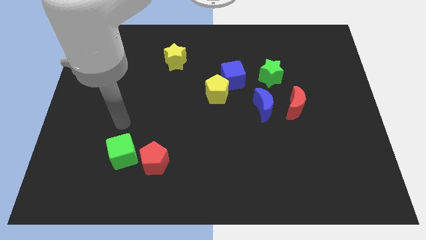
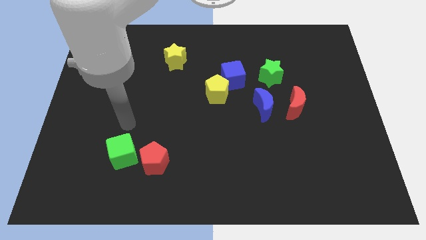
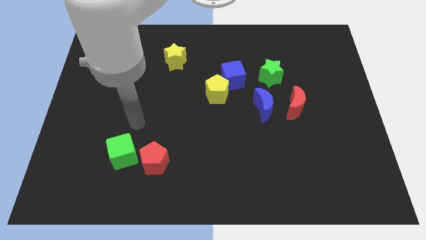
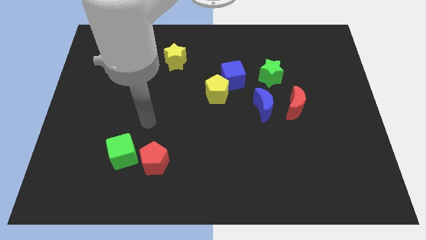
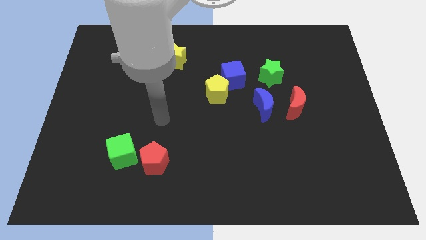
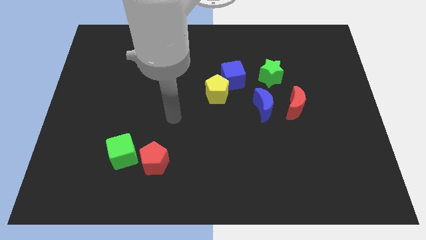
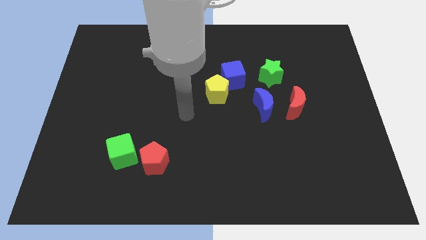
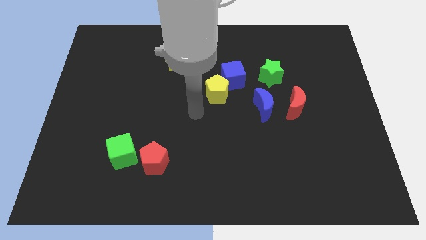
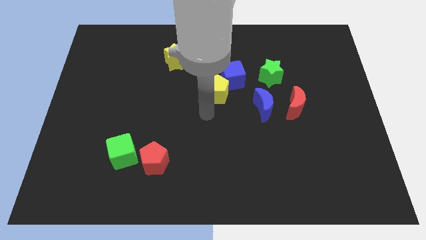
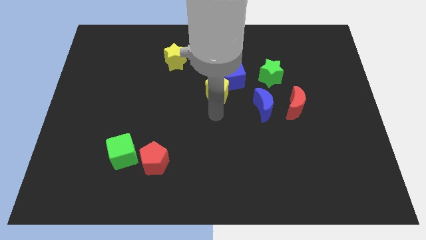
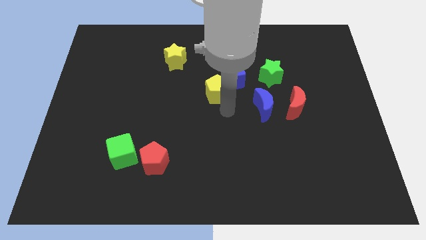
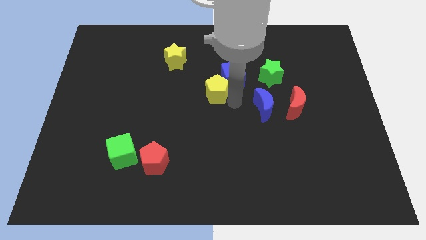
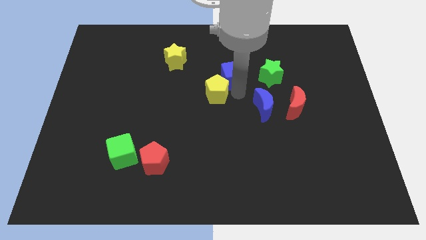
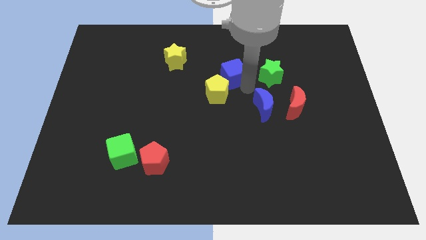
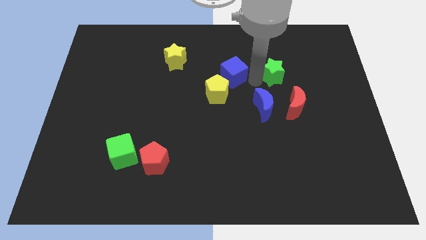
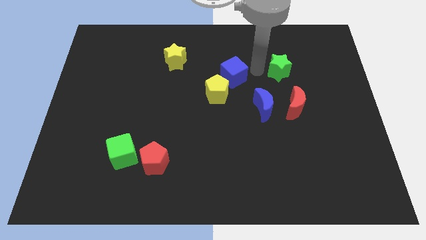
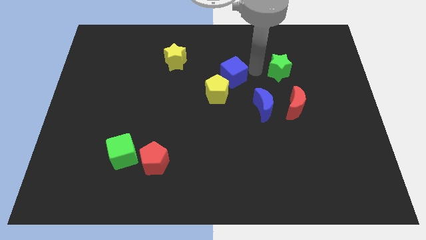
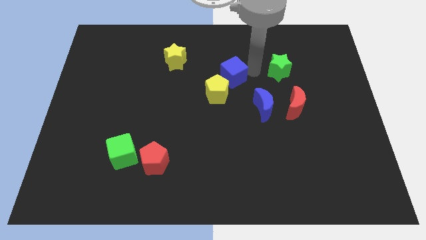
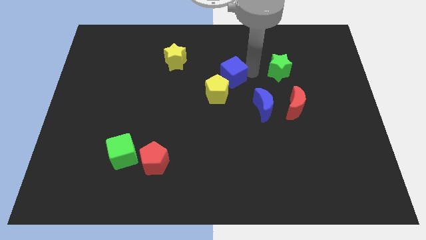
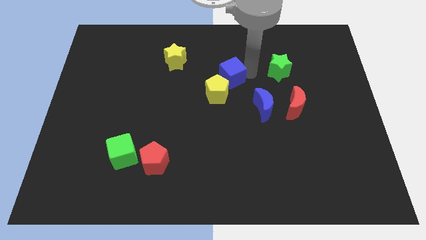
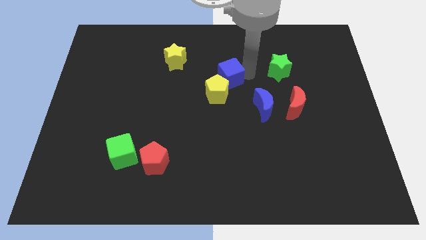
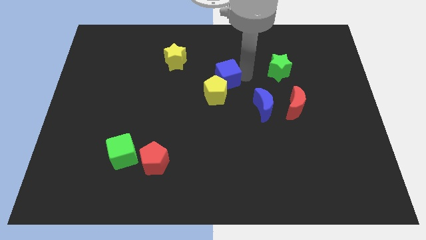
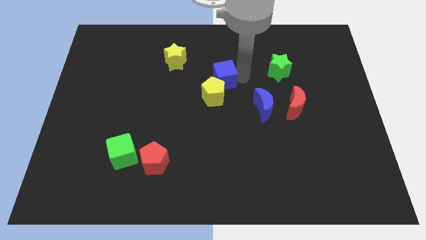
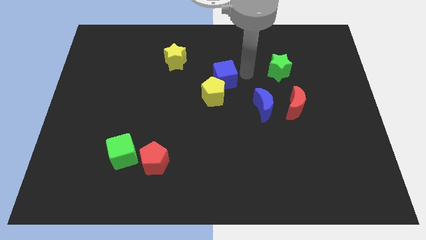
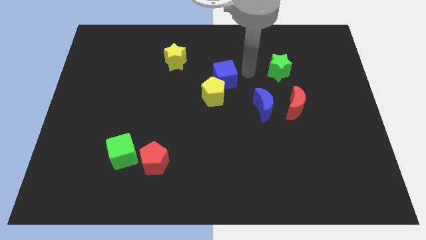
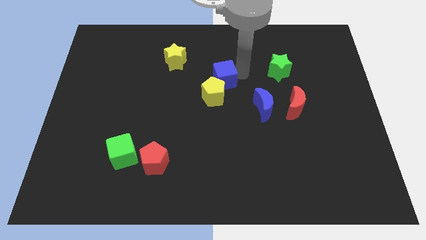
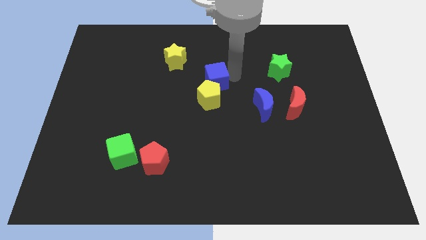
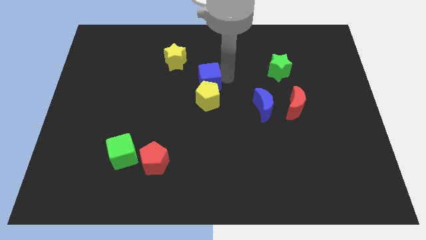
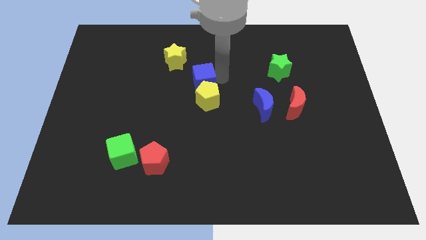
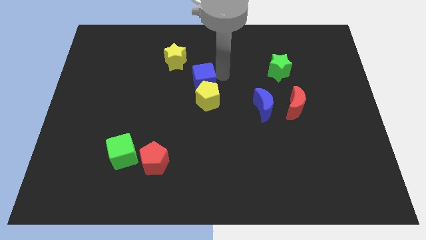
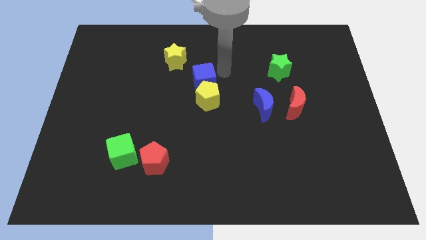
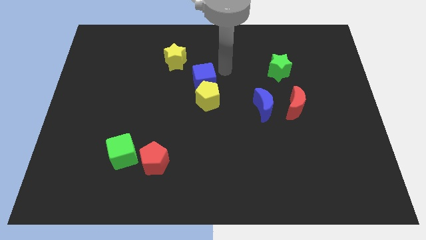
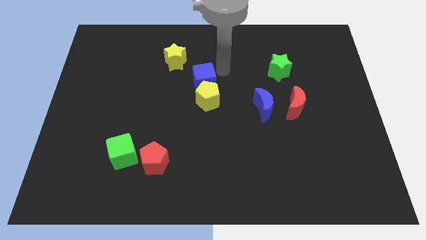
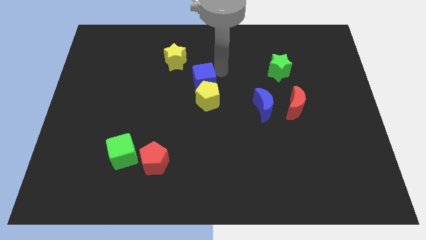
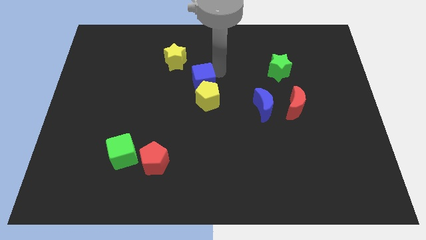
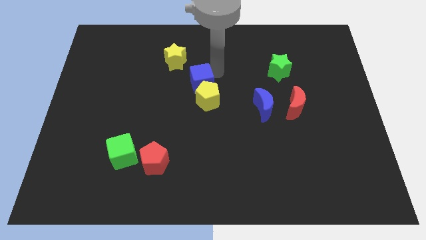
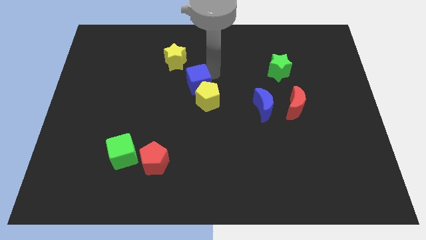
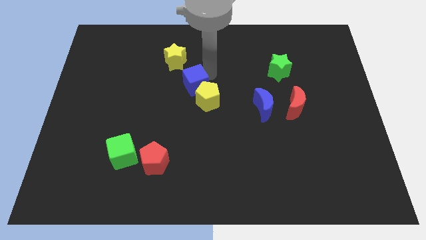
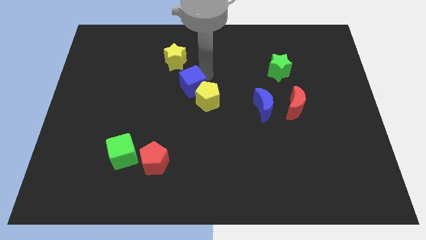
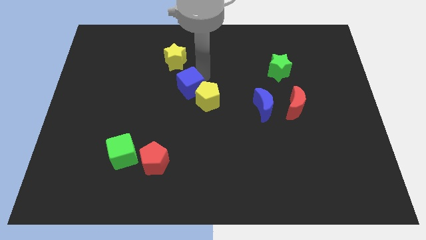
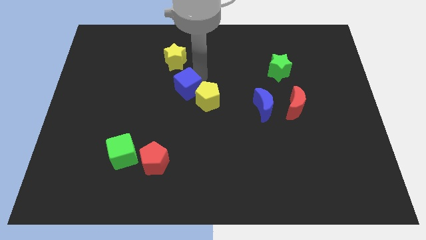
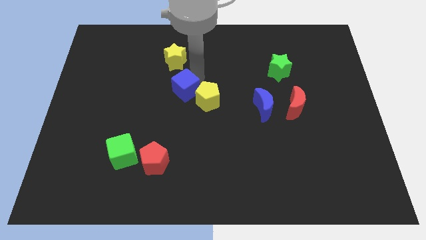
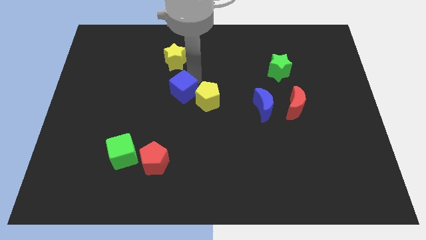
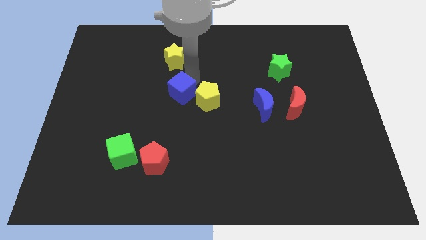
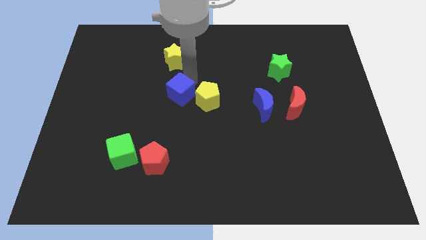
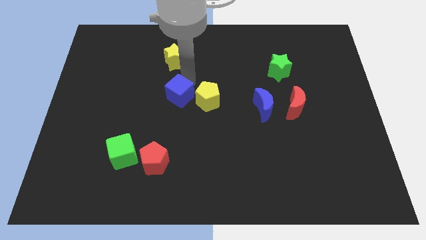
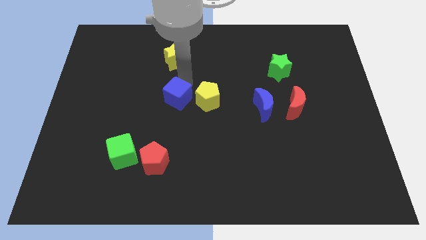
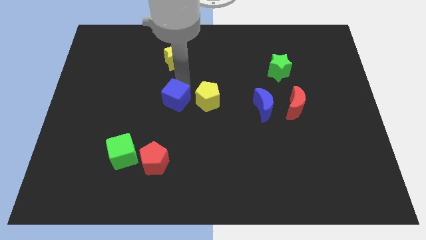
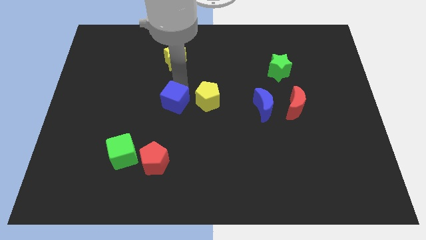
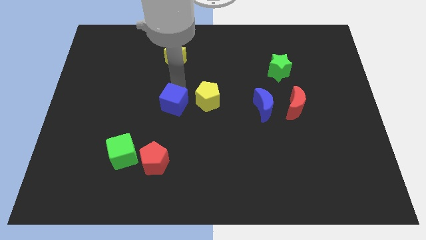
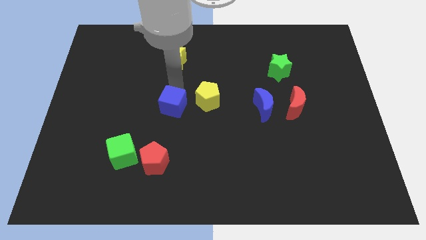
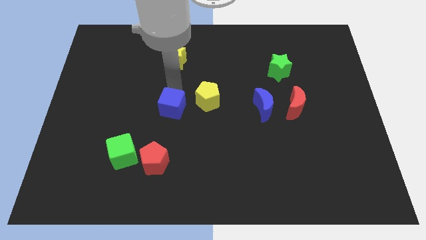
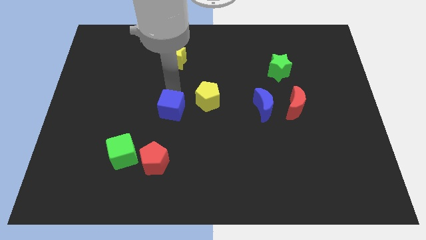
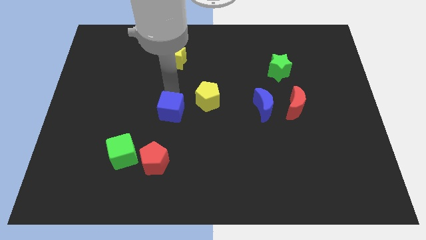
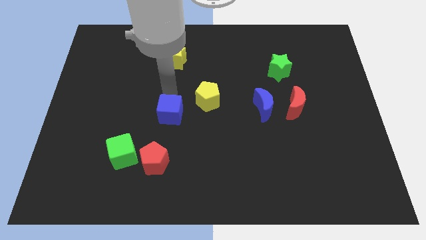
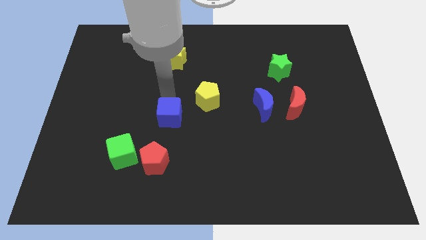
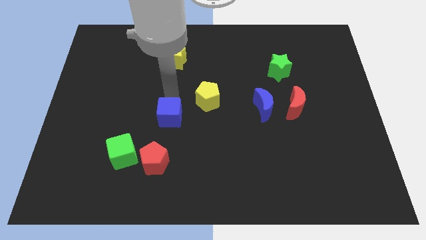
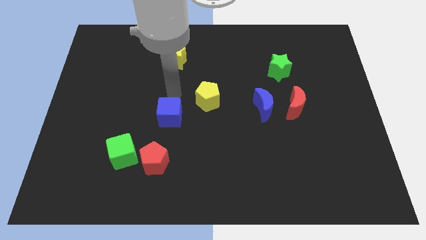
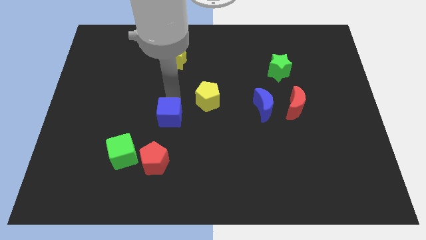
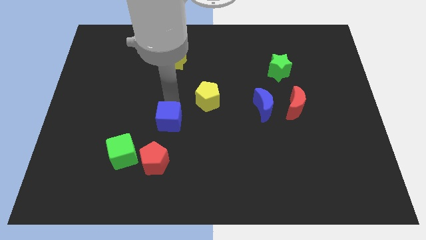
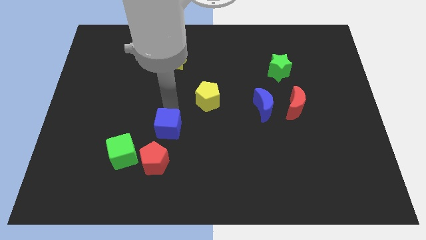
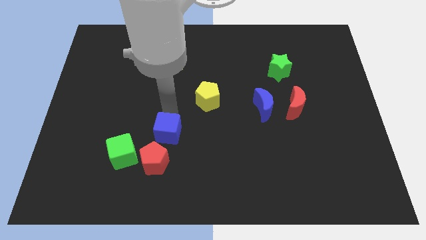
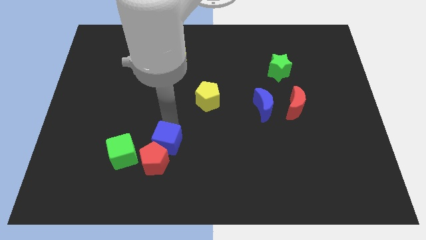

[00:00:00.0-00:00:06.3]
push the blue cube to the red pentagon

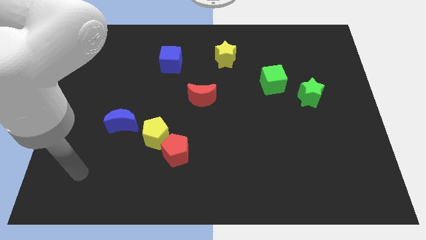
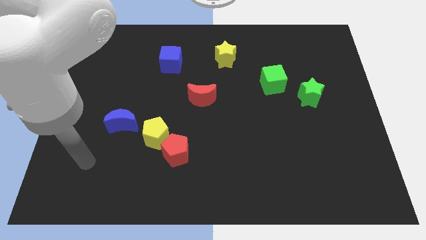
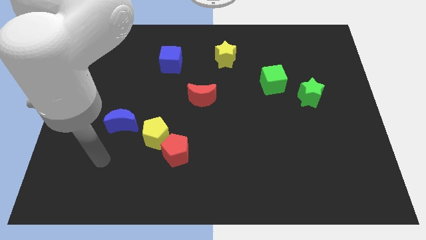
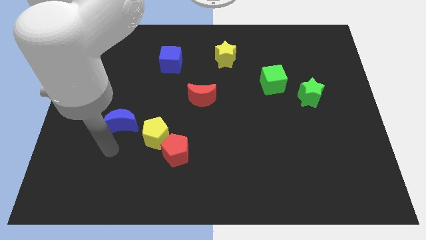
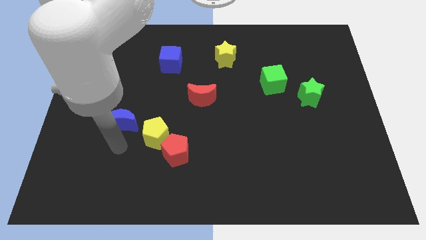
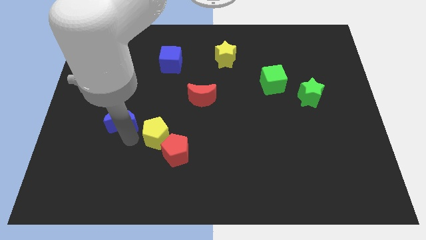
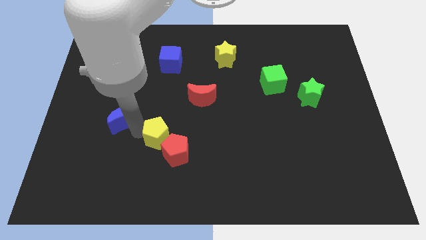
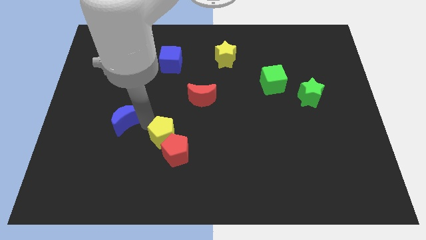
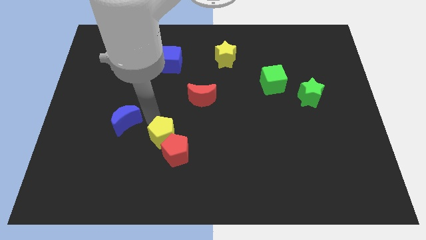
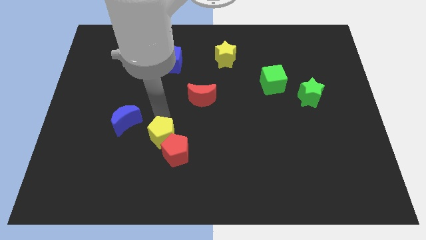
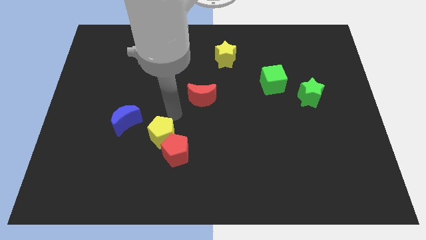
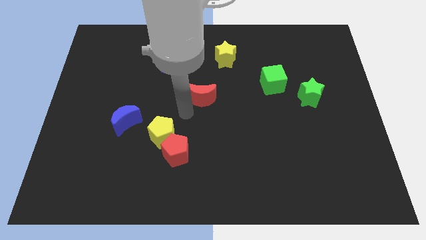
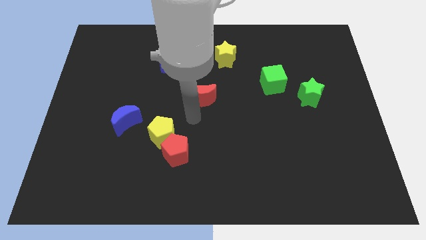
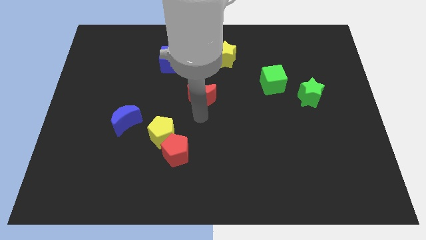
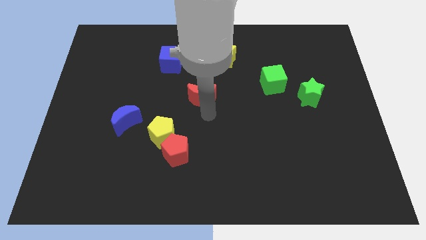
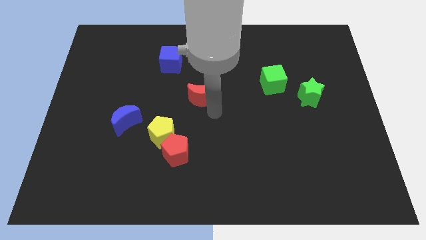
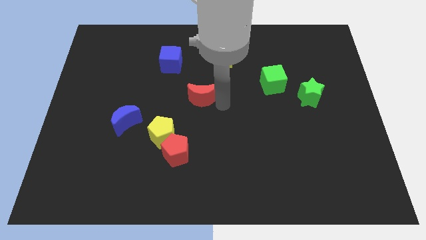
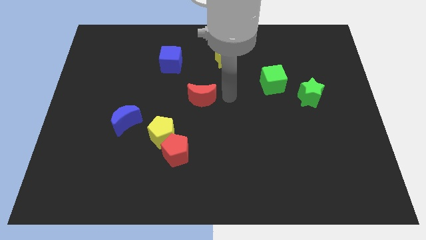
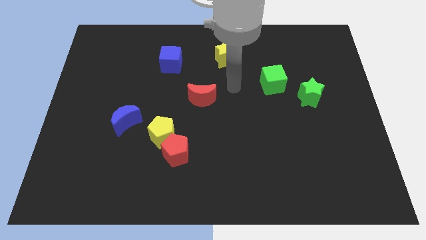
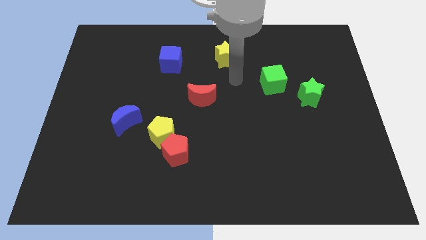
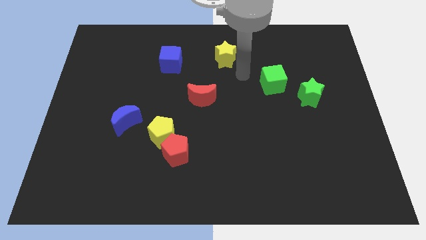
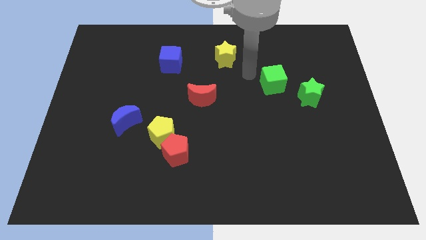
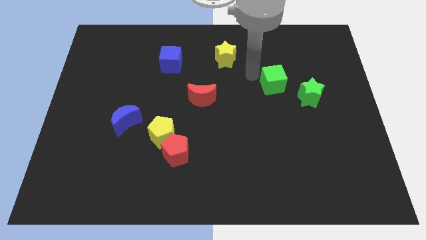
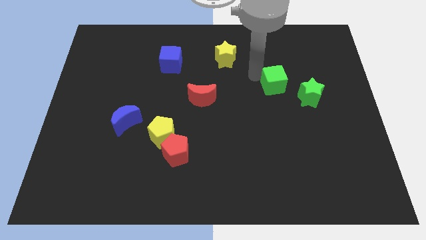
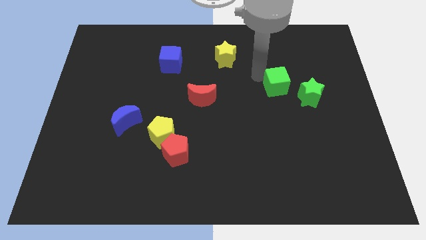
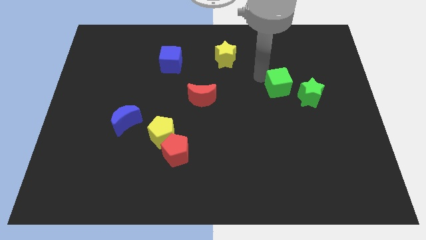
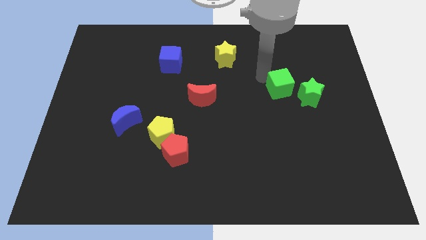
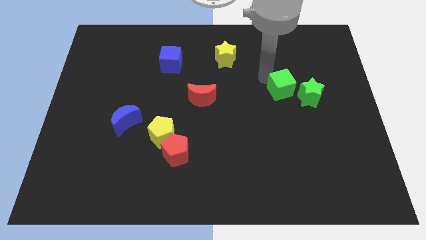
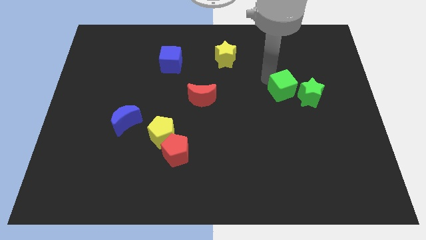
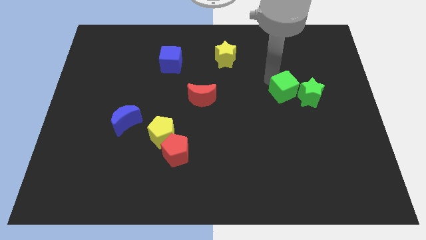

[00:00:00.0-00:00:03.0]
move the green cube next to the green star
